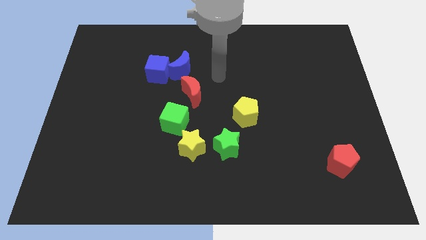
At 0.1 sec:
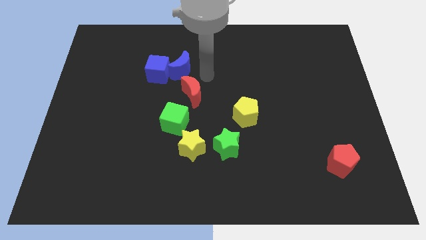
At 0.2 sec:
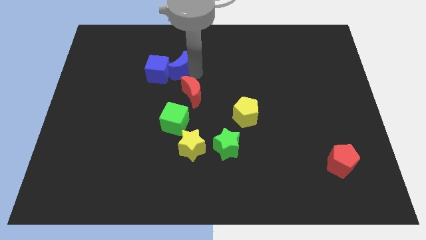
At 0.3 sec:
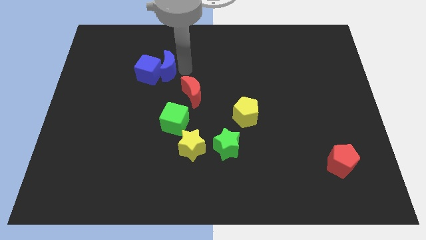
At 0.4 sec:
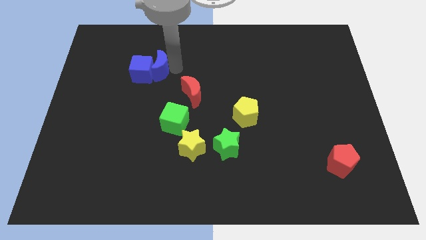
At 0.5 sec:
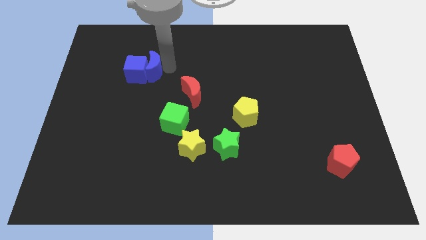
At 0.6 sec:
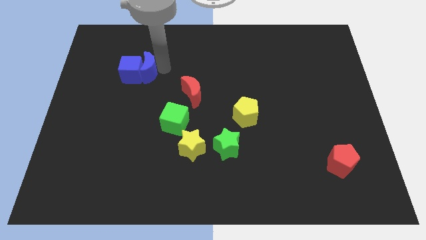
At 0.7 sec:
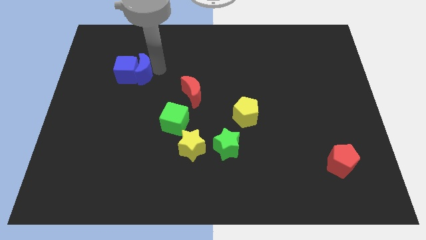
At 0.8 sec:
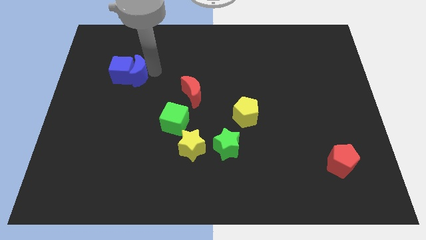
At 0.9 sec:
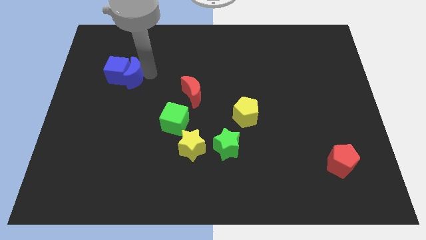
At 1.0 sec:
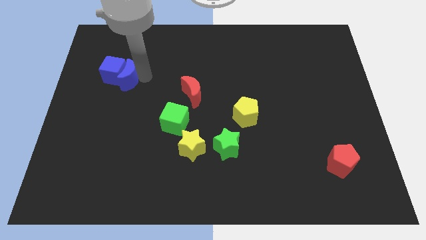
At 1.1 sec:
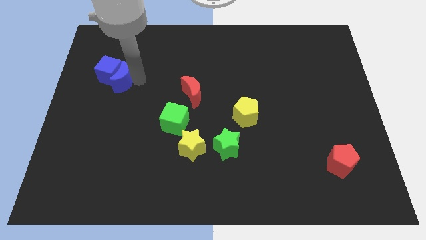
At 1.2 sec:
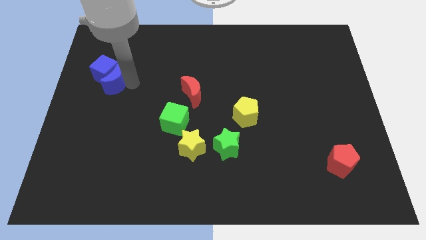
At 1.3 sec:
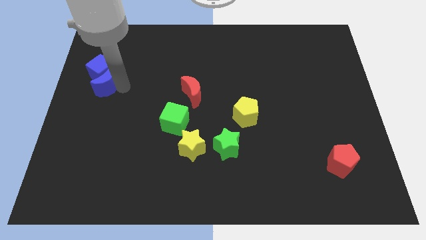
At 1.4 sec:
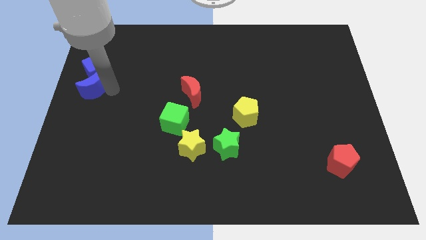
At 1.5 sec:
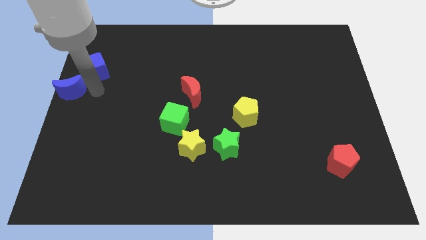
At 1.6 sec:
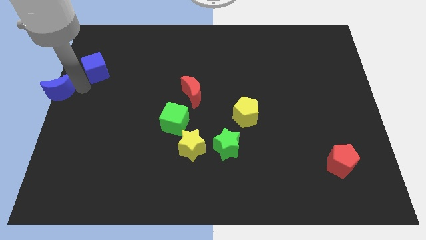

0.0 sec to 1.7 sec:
pull the blue cube apart from the blue moon

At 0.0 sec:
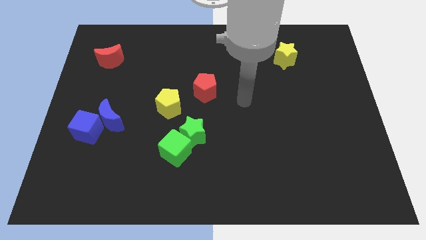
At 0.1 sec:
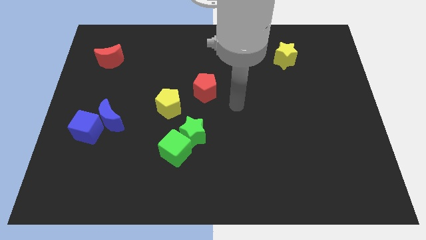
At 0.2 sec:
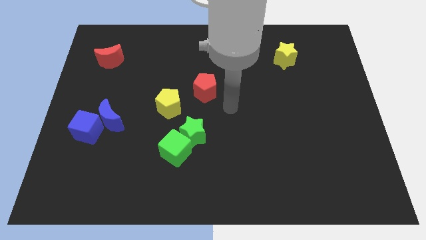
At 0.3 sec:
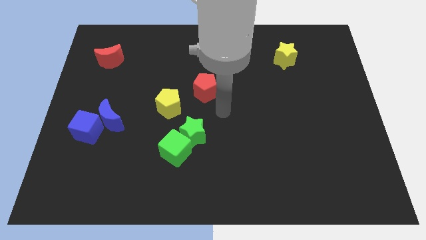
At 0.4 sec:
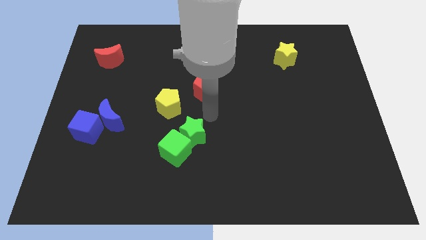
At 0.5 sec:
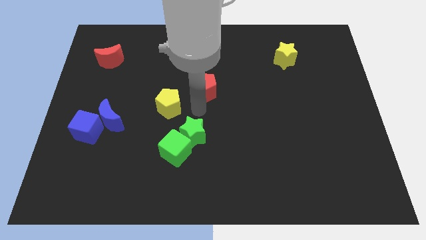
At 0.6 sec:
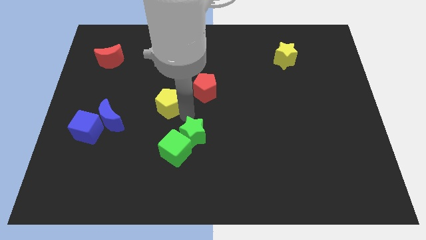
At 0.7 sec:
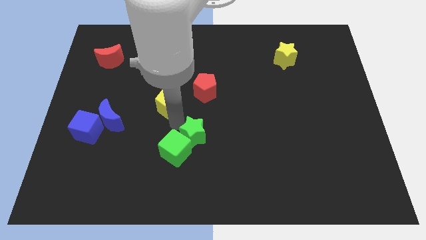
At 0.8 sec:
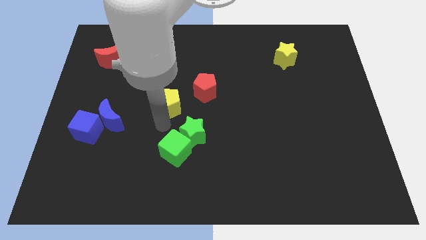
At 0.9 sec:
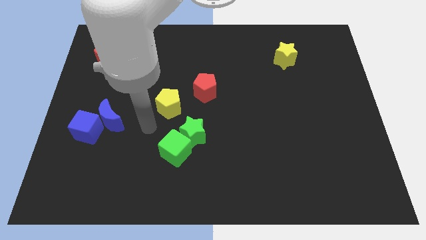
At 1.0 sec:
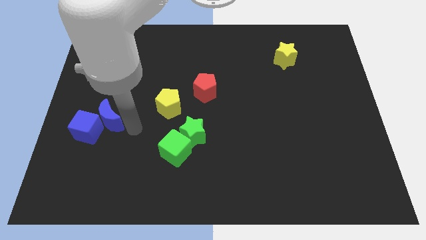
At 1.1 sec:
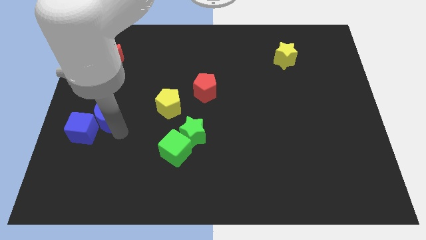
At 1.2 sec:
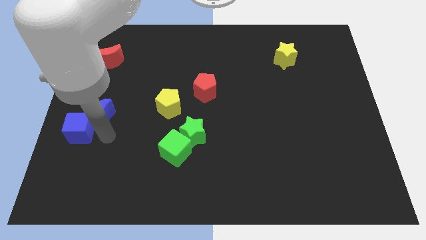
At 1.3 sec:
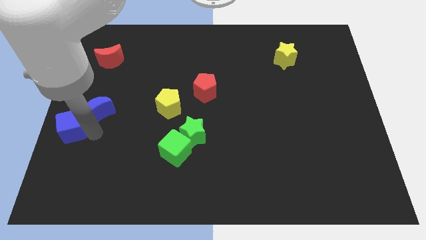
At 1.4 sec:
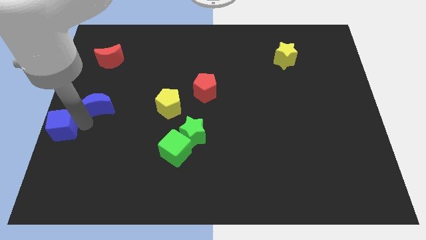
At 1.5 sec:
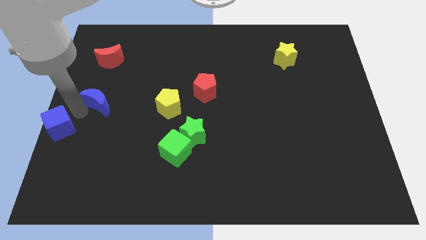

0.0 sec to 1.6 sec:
move the blue moon away from the blue cube

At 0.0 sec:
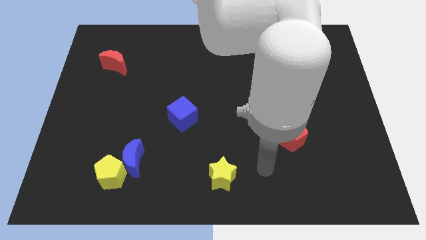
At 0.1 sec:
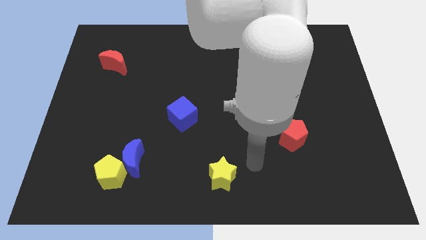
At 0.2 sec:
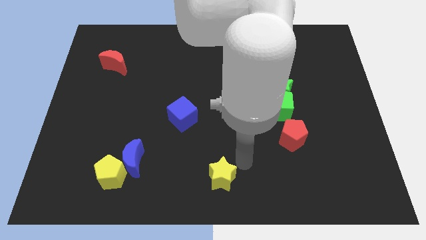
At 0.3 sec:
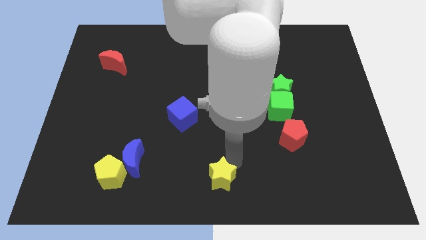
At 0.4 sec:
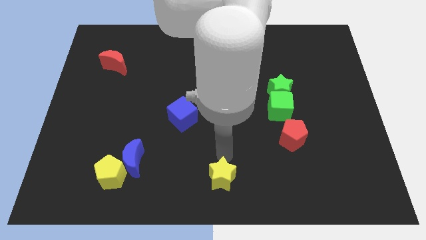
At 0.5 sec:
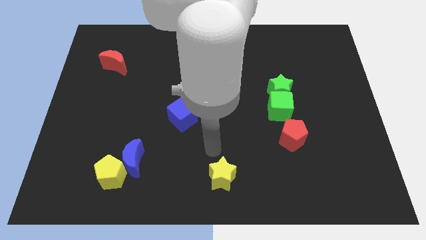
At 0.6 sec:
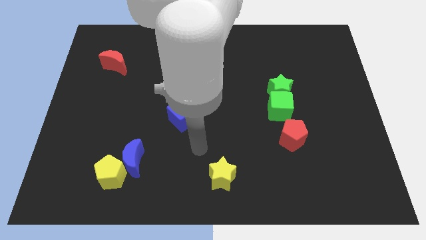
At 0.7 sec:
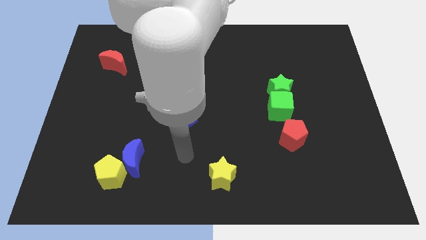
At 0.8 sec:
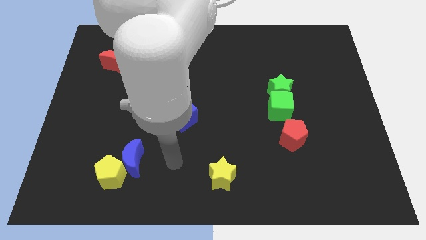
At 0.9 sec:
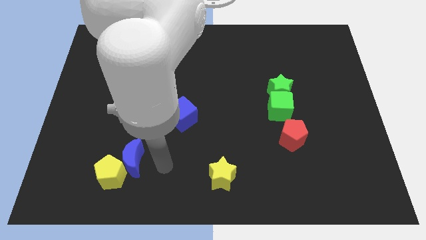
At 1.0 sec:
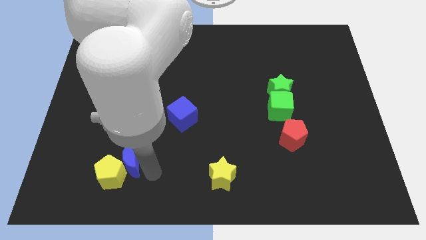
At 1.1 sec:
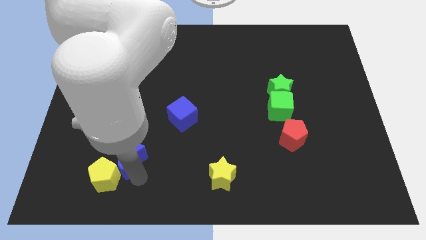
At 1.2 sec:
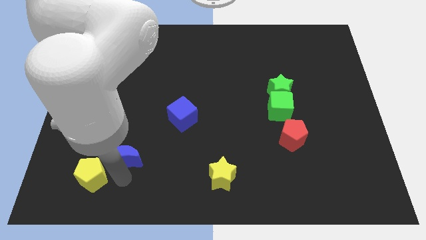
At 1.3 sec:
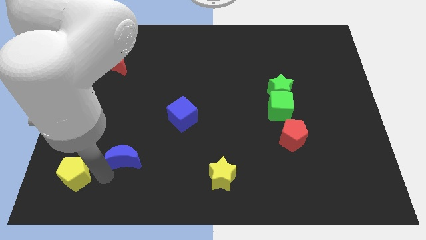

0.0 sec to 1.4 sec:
separate the blue moon from the yellow pentagon

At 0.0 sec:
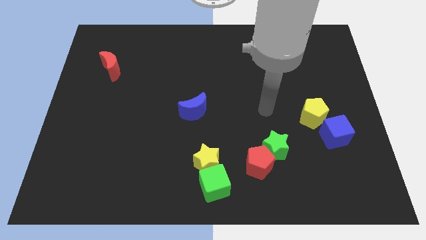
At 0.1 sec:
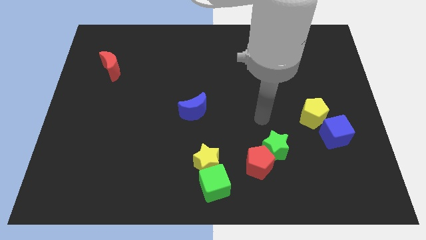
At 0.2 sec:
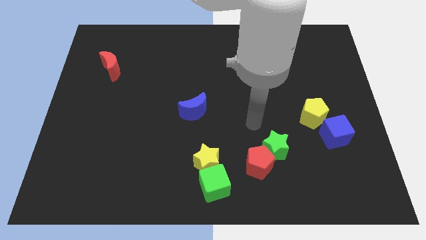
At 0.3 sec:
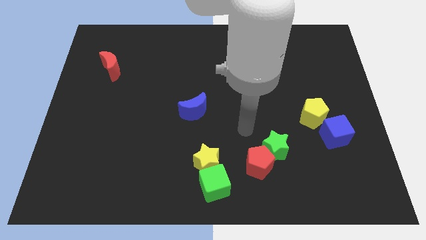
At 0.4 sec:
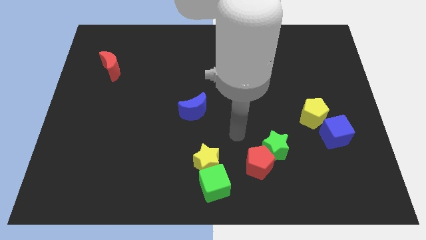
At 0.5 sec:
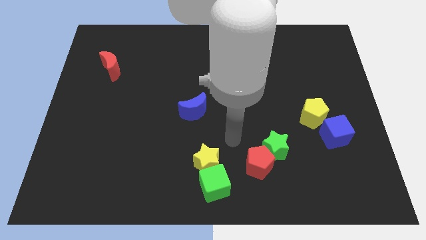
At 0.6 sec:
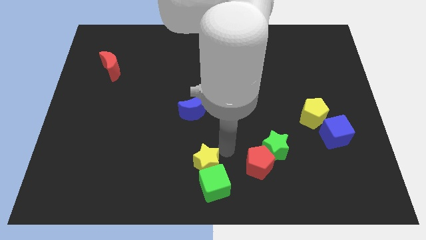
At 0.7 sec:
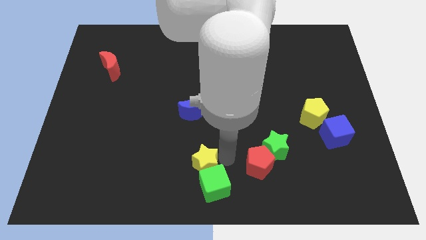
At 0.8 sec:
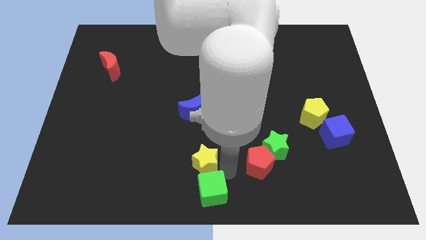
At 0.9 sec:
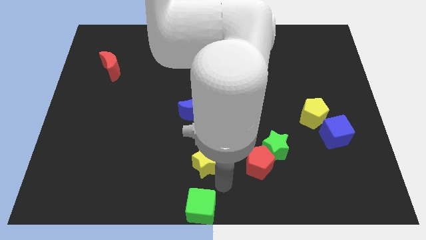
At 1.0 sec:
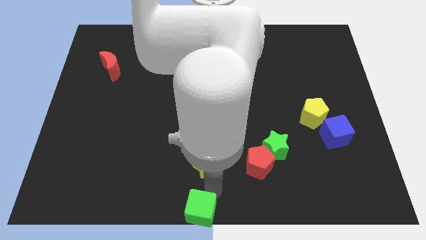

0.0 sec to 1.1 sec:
separate the yellow star from the green cube

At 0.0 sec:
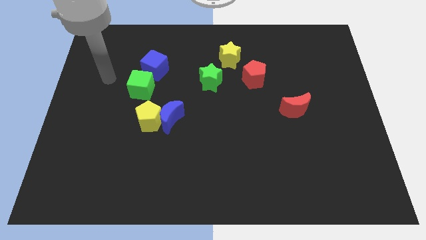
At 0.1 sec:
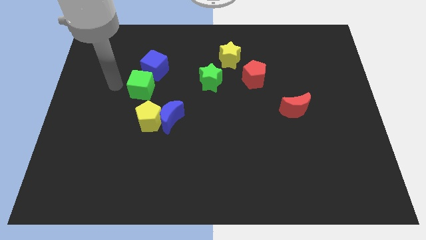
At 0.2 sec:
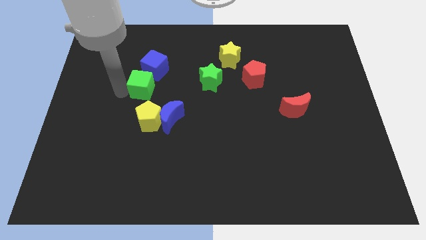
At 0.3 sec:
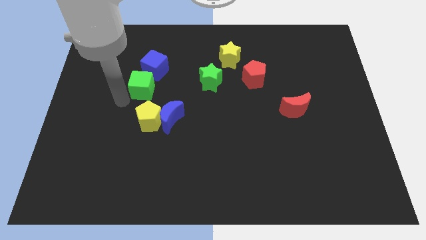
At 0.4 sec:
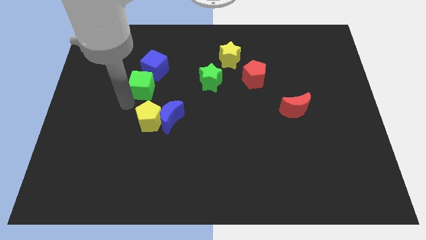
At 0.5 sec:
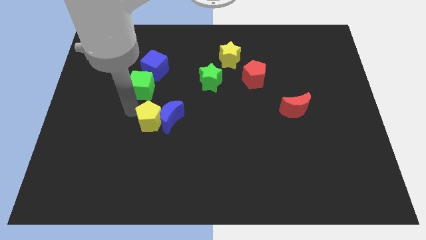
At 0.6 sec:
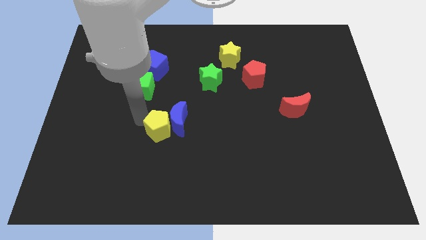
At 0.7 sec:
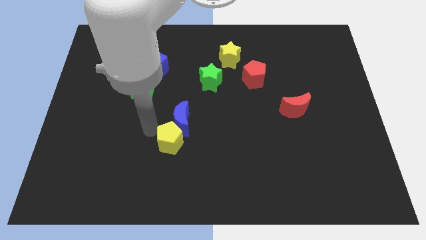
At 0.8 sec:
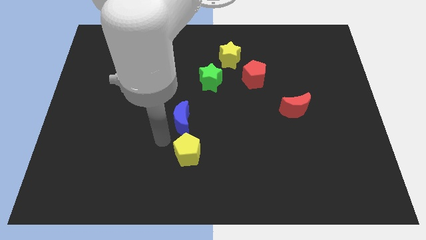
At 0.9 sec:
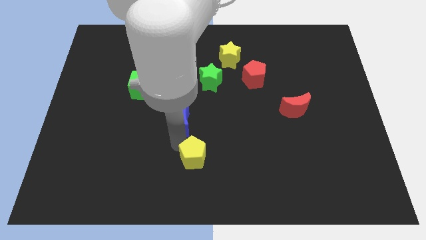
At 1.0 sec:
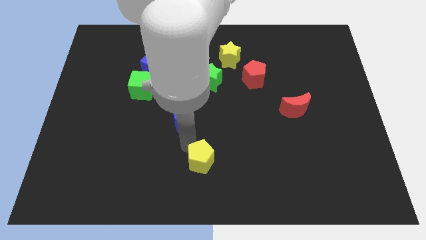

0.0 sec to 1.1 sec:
move the blue moon away from the yellow pentagon

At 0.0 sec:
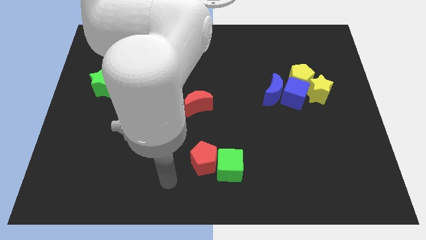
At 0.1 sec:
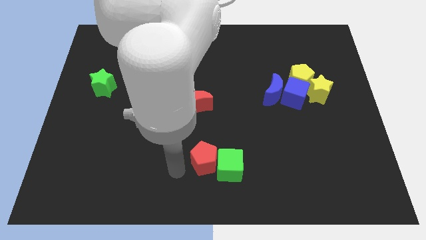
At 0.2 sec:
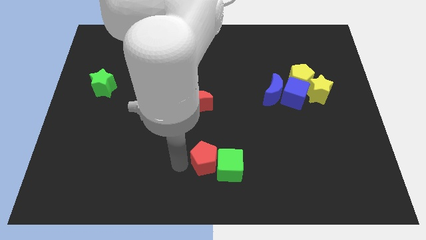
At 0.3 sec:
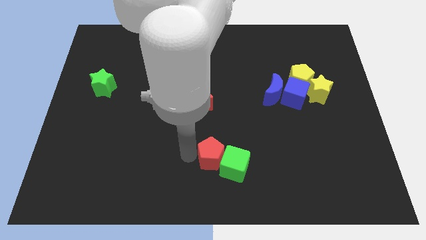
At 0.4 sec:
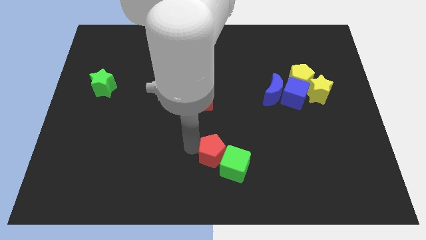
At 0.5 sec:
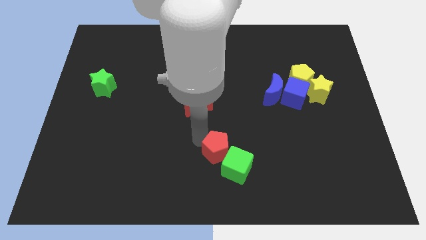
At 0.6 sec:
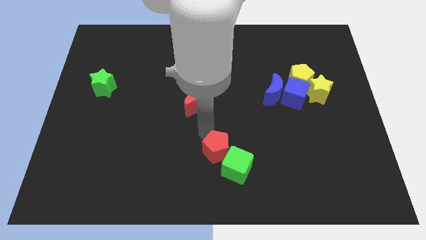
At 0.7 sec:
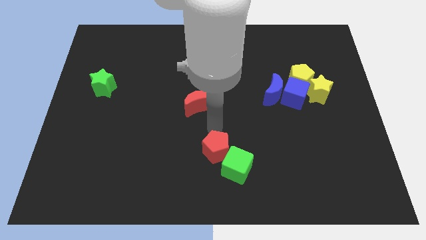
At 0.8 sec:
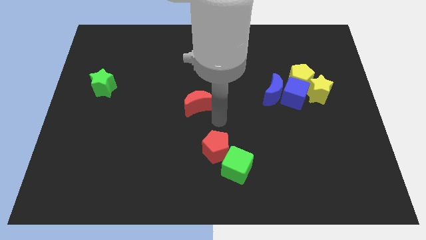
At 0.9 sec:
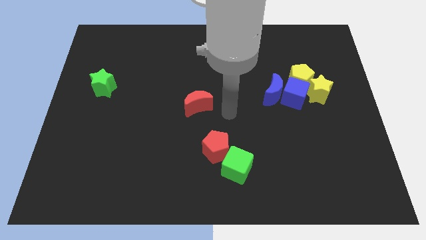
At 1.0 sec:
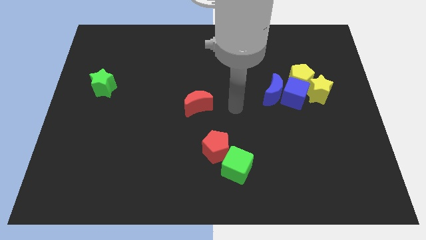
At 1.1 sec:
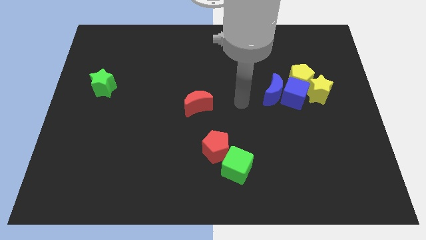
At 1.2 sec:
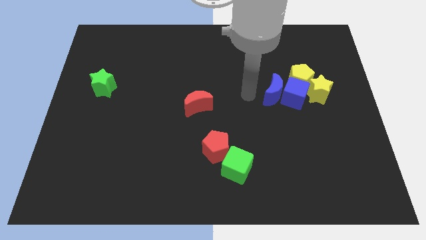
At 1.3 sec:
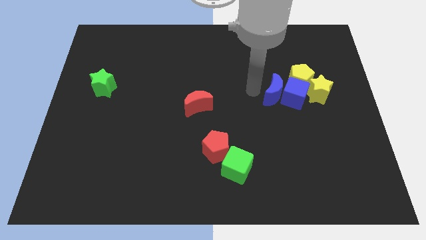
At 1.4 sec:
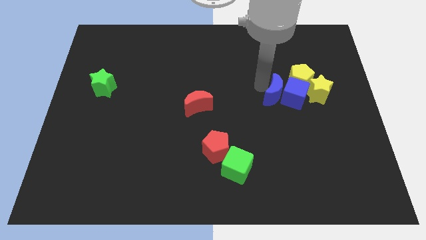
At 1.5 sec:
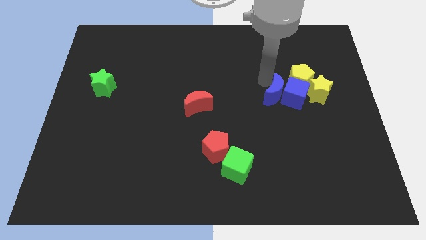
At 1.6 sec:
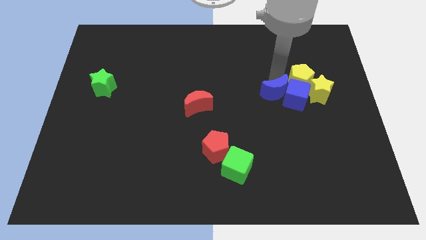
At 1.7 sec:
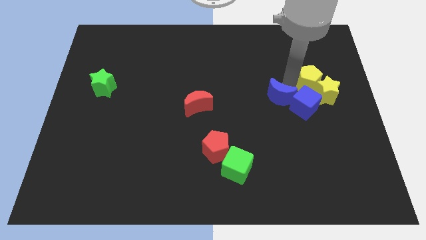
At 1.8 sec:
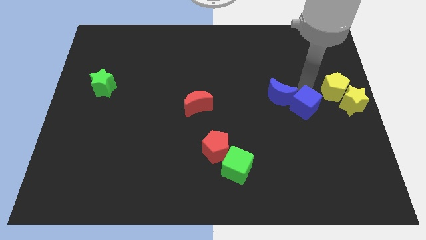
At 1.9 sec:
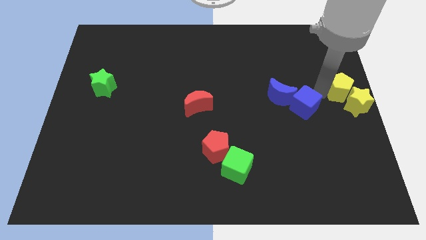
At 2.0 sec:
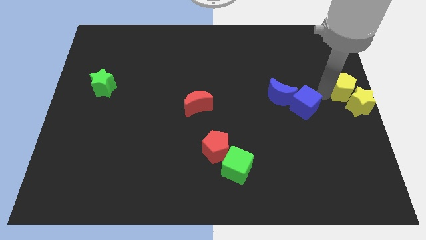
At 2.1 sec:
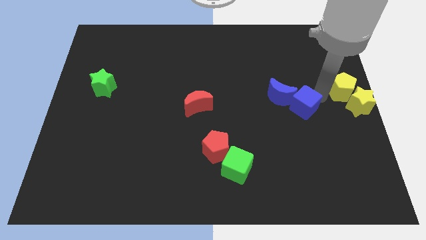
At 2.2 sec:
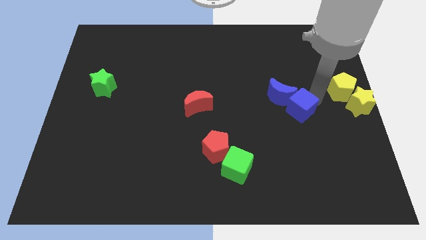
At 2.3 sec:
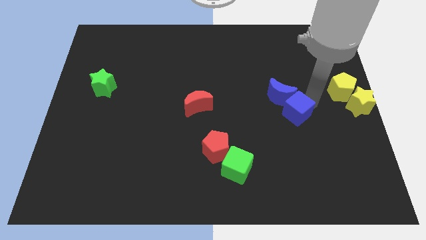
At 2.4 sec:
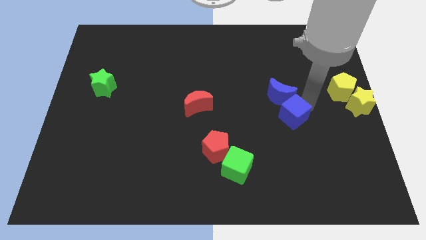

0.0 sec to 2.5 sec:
separate the blue cube from the blue moon, yellow pentagon, and yellow star
